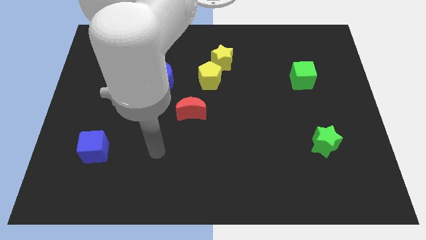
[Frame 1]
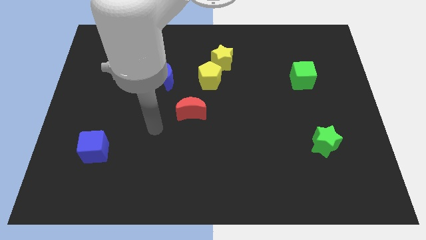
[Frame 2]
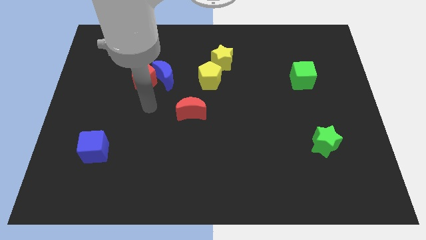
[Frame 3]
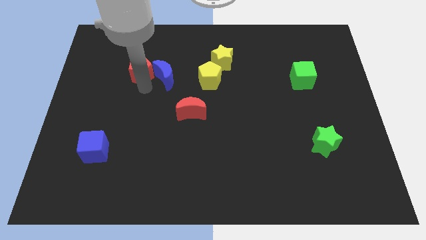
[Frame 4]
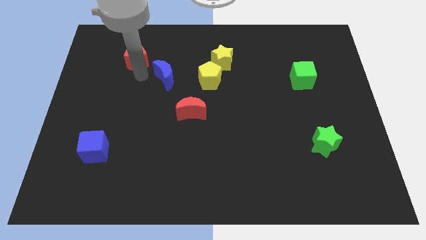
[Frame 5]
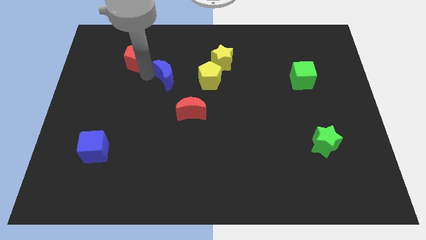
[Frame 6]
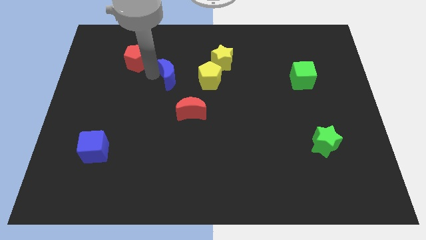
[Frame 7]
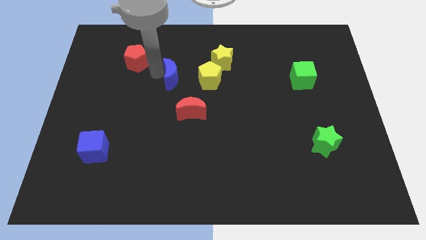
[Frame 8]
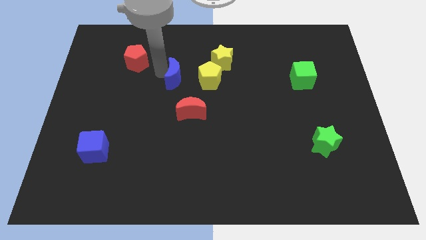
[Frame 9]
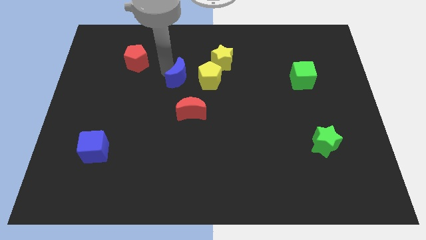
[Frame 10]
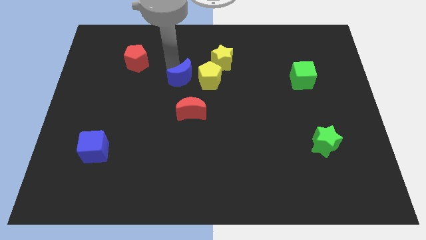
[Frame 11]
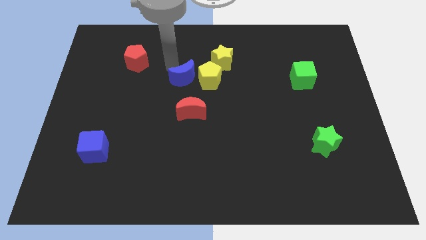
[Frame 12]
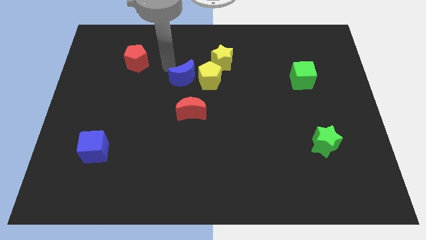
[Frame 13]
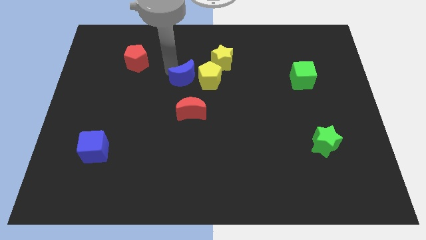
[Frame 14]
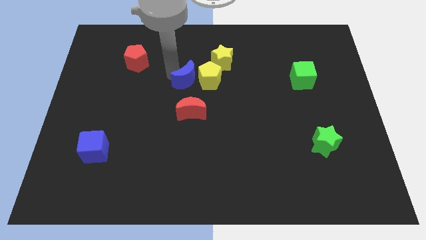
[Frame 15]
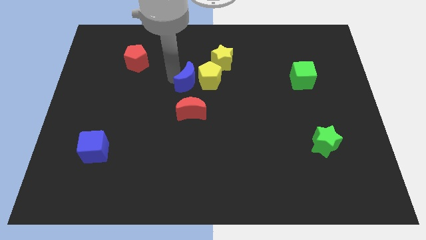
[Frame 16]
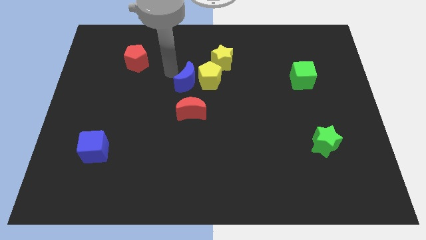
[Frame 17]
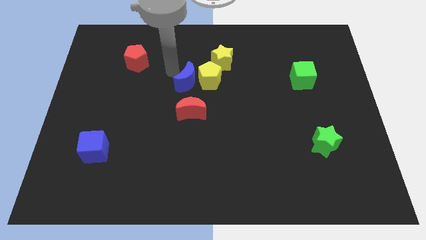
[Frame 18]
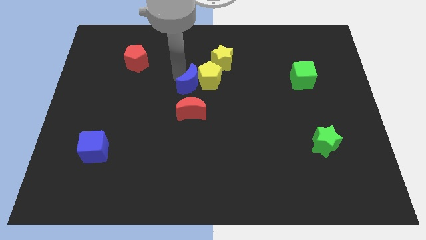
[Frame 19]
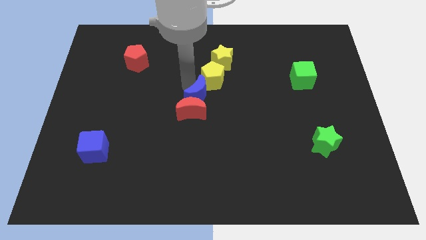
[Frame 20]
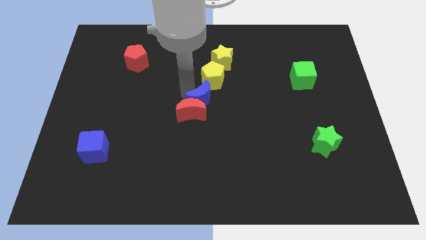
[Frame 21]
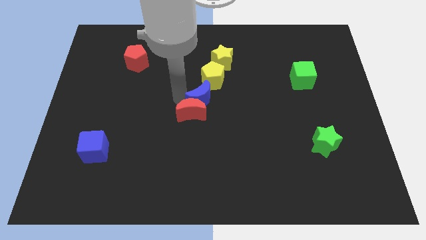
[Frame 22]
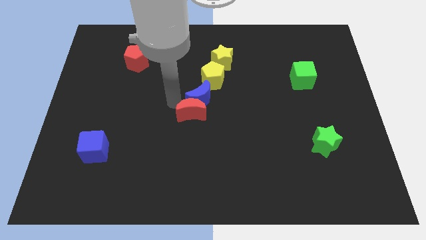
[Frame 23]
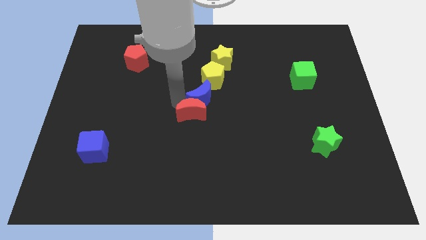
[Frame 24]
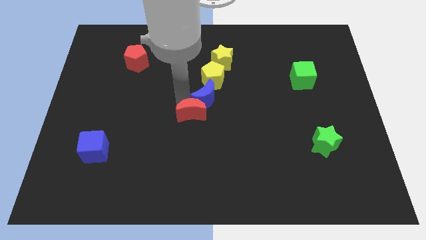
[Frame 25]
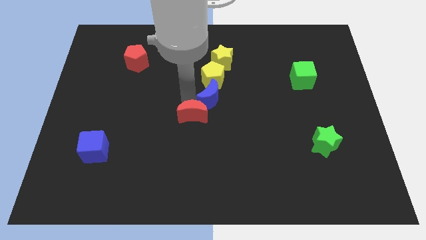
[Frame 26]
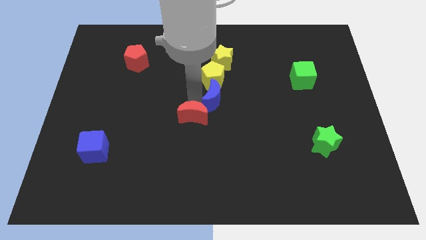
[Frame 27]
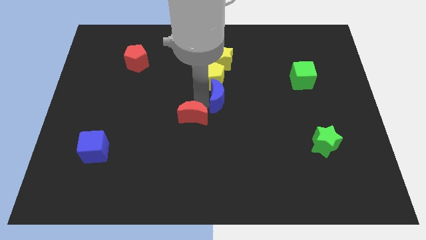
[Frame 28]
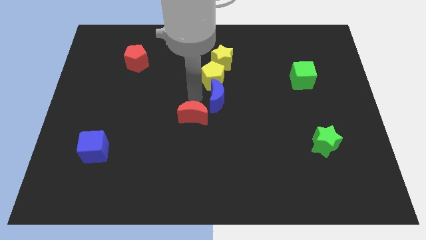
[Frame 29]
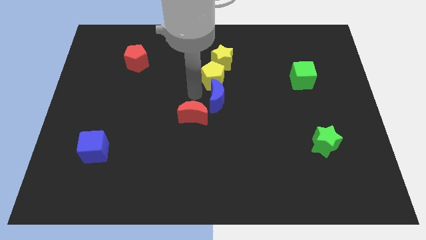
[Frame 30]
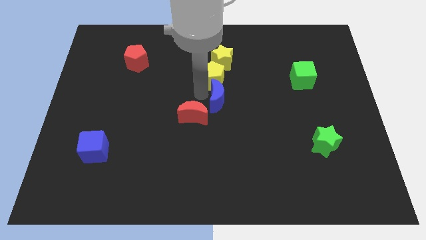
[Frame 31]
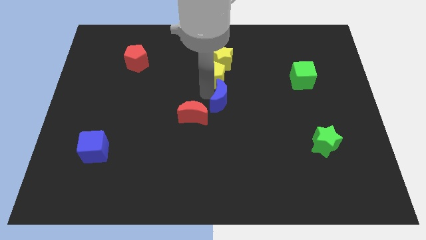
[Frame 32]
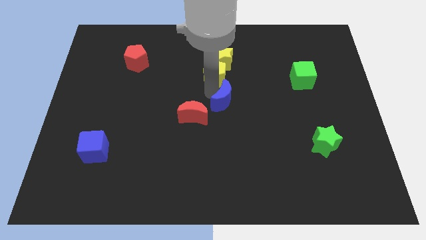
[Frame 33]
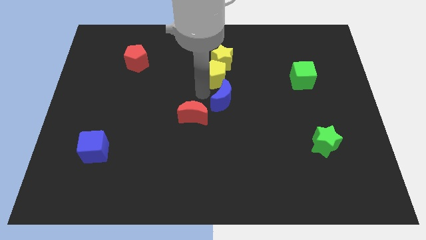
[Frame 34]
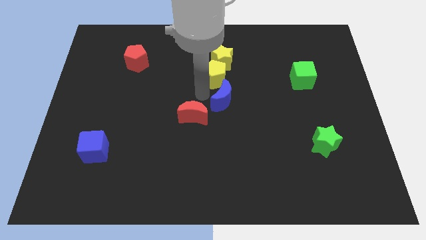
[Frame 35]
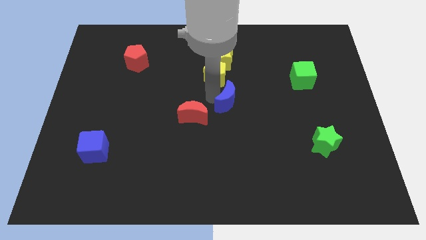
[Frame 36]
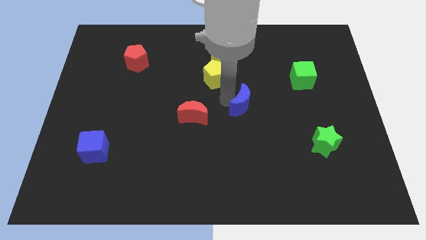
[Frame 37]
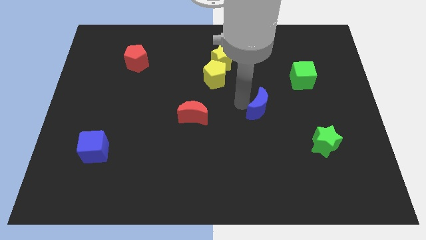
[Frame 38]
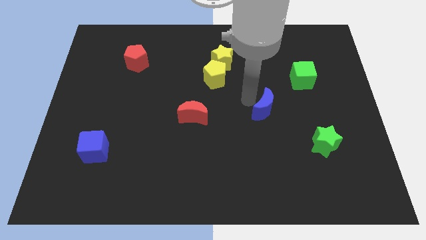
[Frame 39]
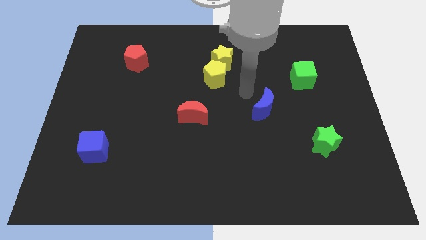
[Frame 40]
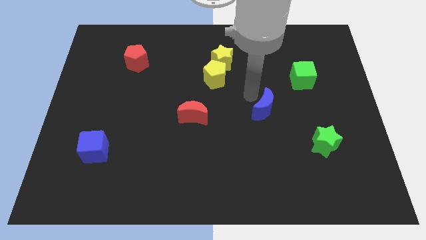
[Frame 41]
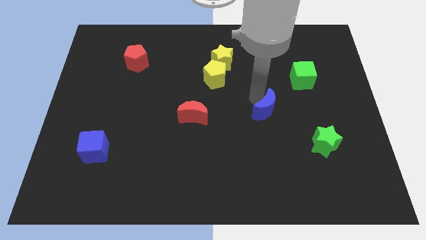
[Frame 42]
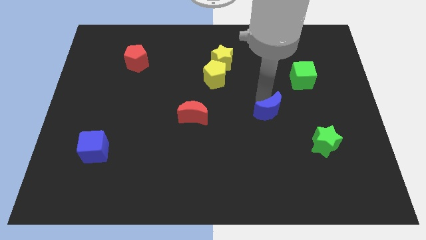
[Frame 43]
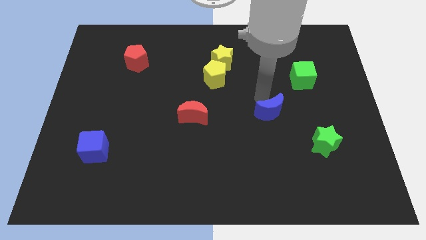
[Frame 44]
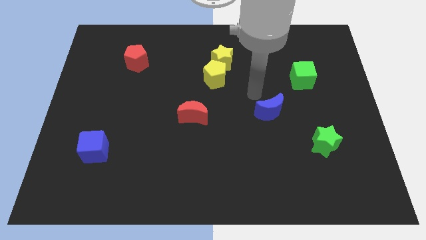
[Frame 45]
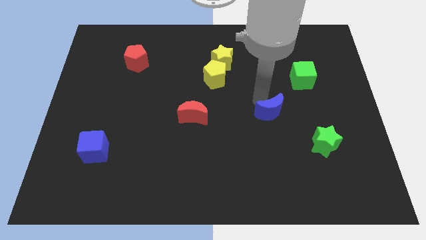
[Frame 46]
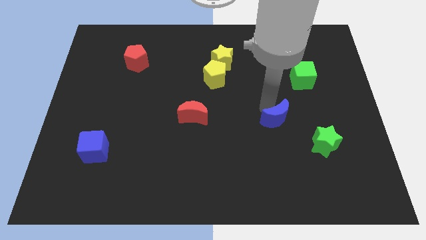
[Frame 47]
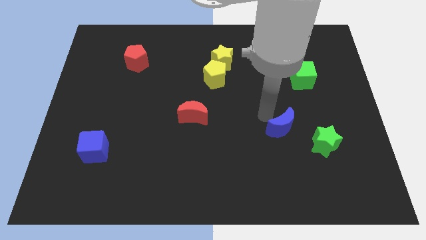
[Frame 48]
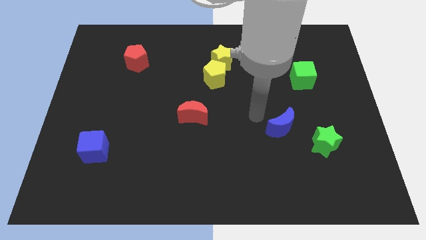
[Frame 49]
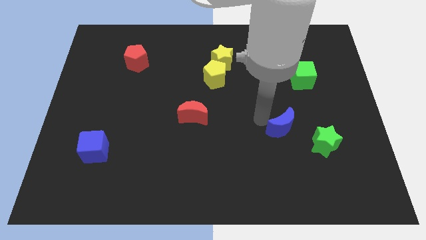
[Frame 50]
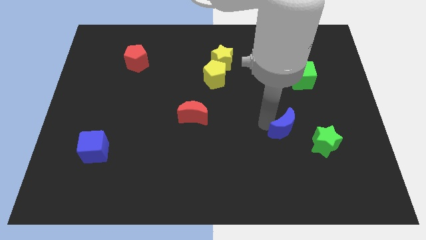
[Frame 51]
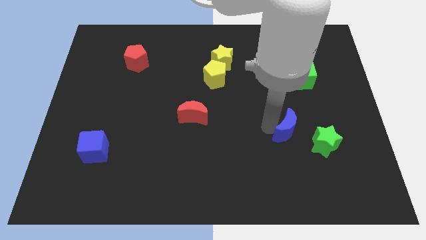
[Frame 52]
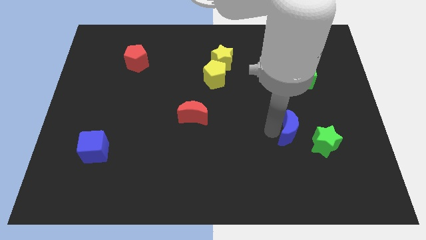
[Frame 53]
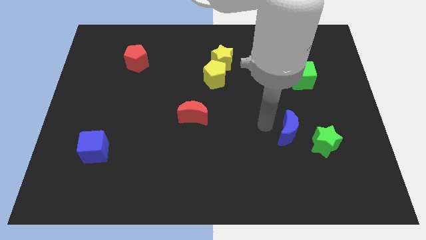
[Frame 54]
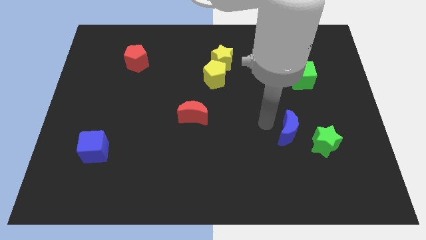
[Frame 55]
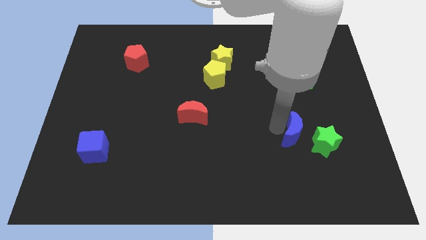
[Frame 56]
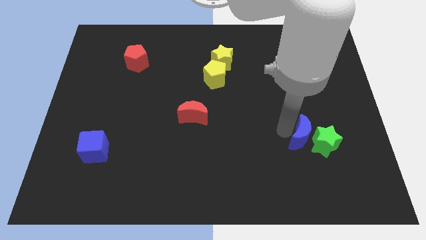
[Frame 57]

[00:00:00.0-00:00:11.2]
slide the blue moon next to the green star

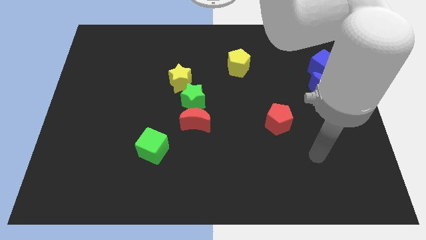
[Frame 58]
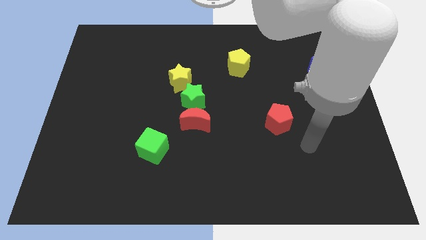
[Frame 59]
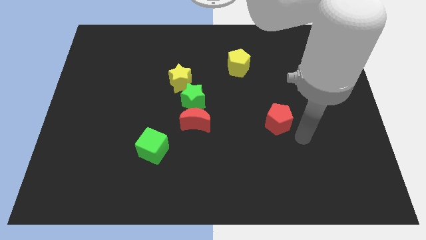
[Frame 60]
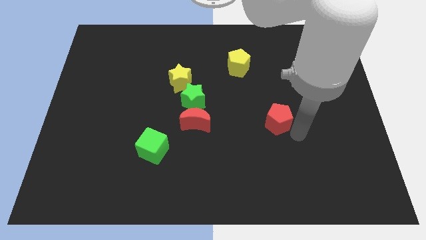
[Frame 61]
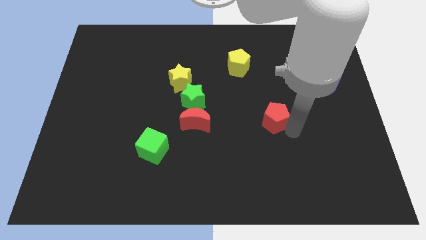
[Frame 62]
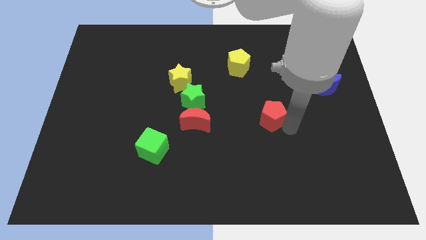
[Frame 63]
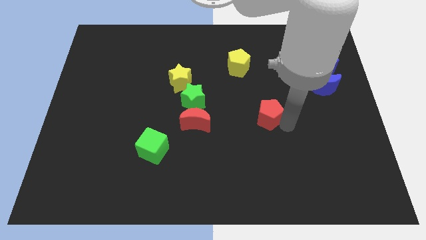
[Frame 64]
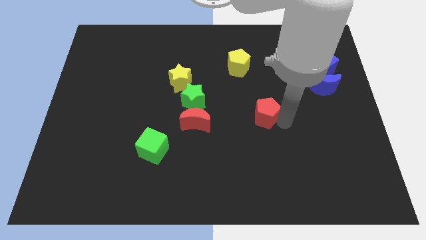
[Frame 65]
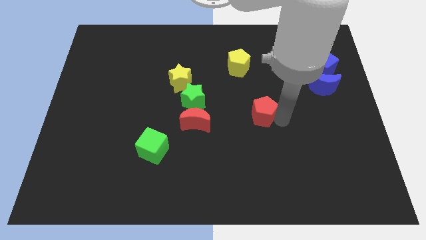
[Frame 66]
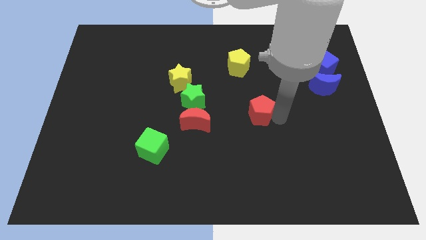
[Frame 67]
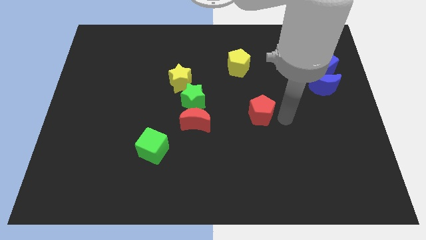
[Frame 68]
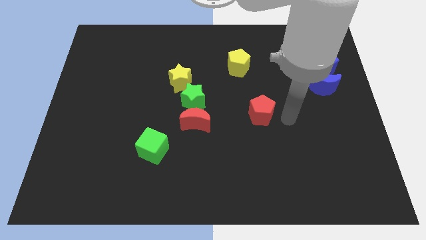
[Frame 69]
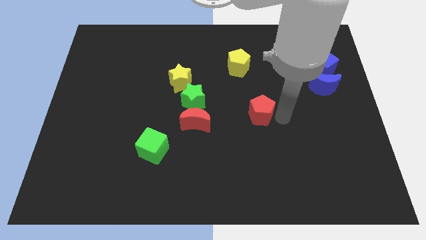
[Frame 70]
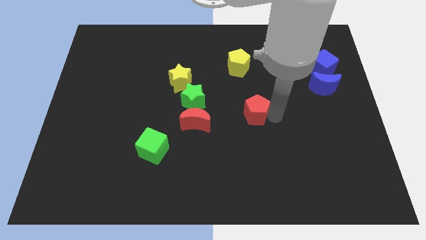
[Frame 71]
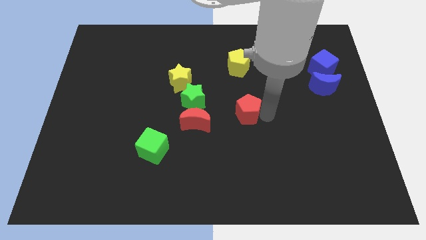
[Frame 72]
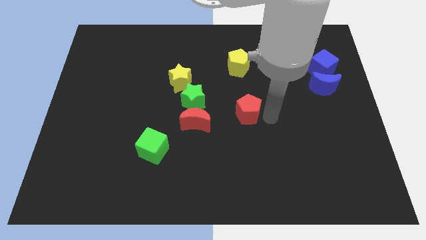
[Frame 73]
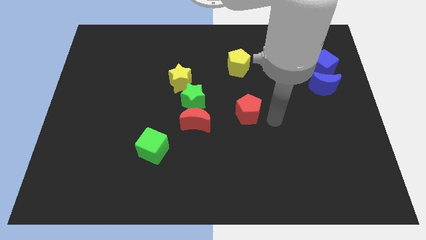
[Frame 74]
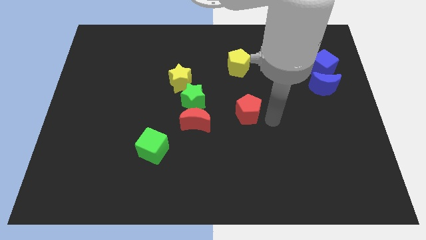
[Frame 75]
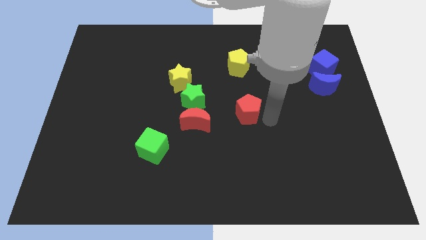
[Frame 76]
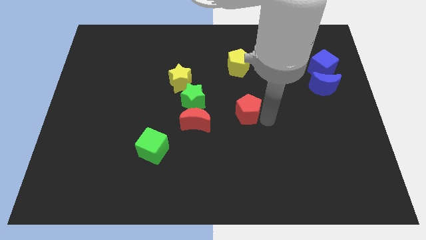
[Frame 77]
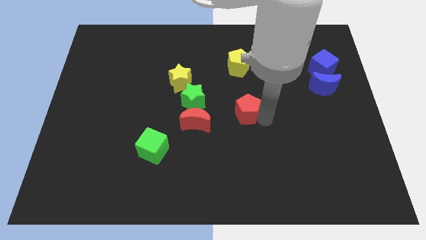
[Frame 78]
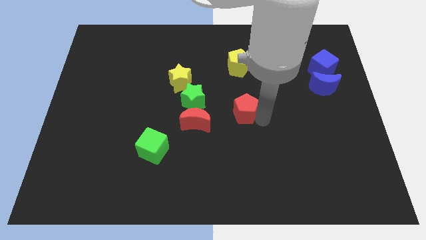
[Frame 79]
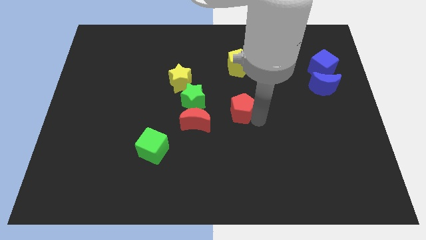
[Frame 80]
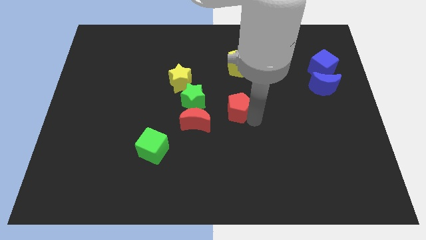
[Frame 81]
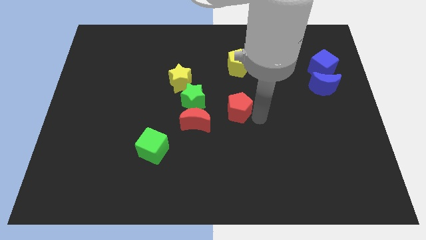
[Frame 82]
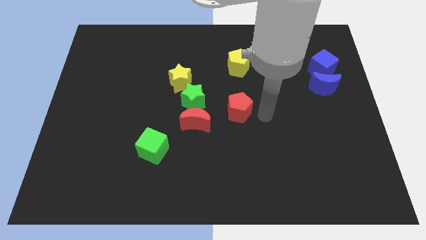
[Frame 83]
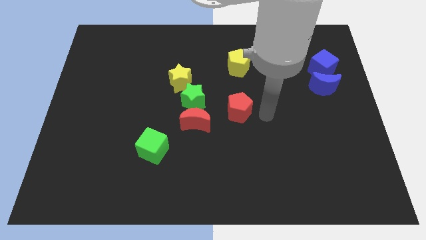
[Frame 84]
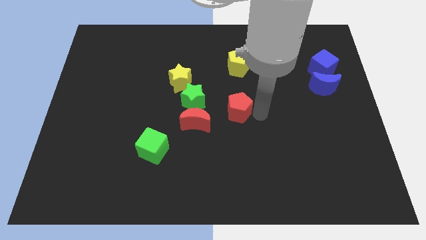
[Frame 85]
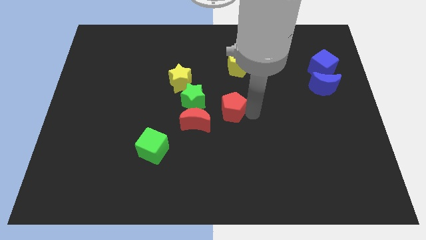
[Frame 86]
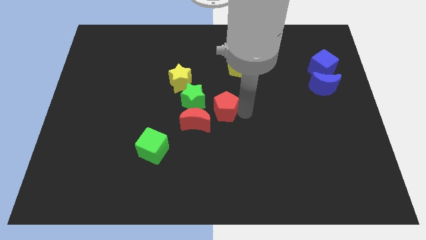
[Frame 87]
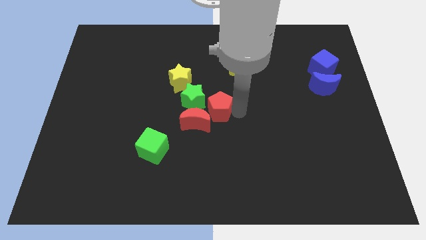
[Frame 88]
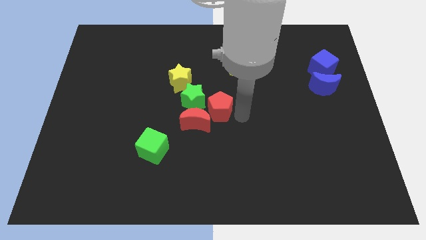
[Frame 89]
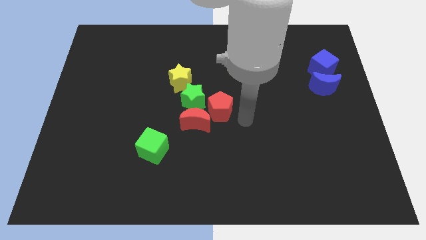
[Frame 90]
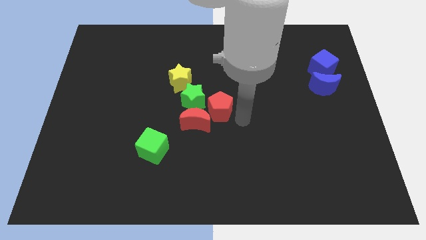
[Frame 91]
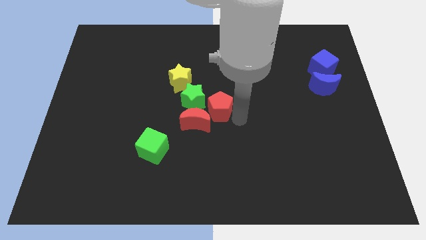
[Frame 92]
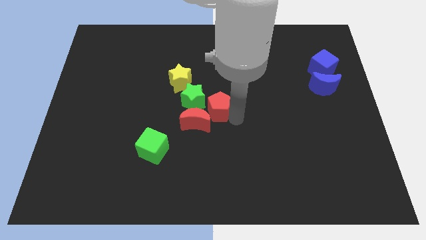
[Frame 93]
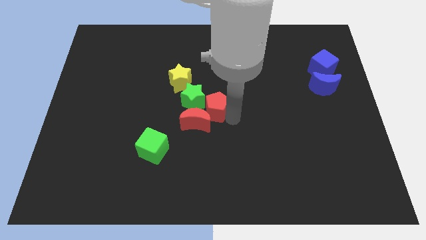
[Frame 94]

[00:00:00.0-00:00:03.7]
put the red pentagon to the green star
